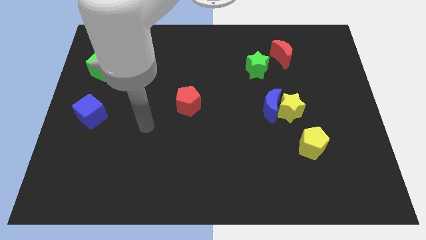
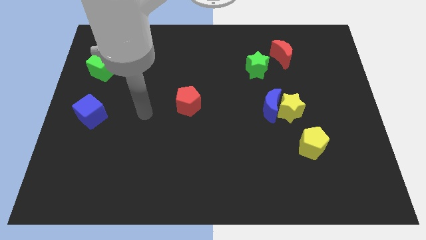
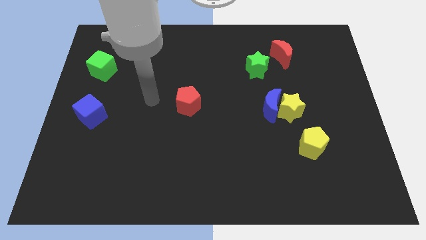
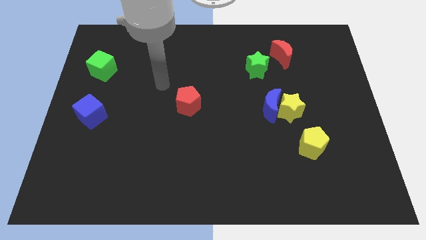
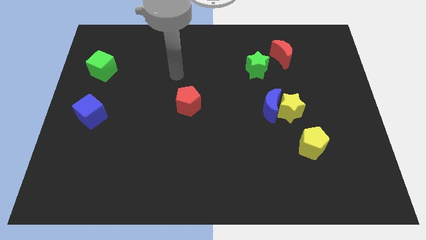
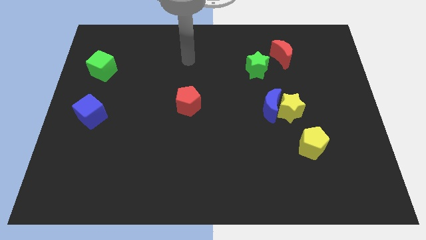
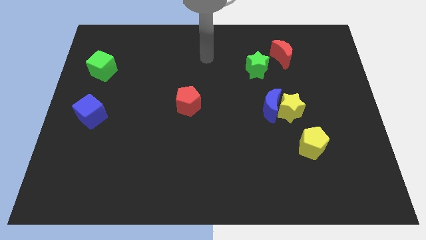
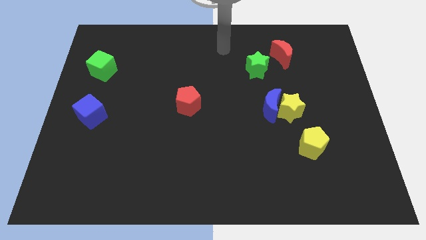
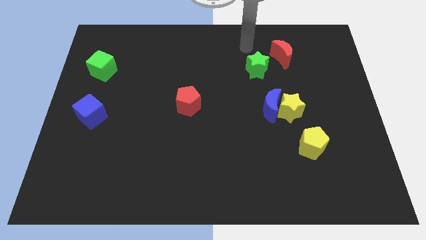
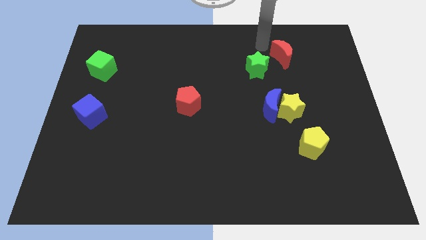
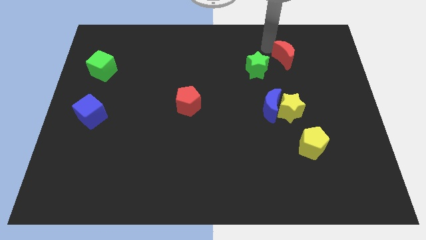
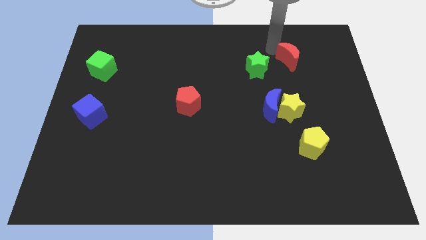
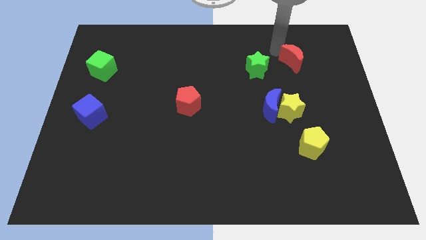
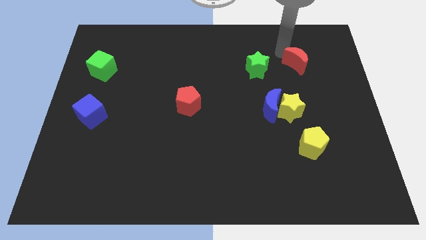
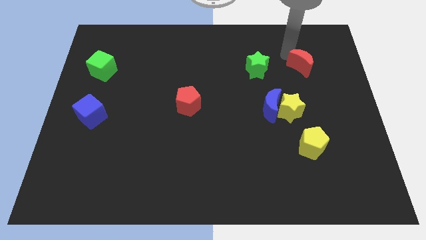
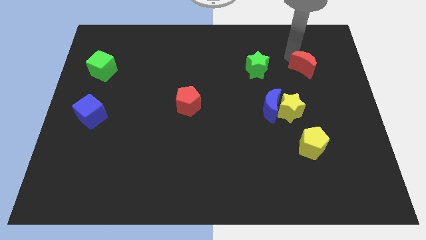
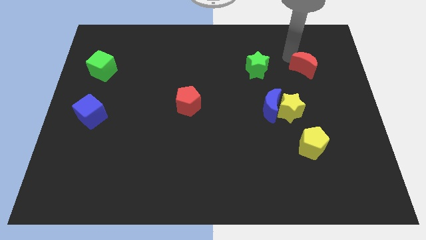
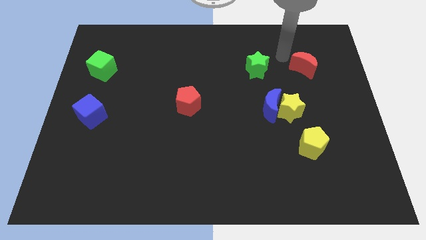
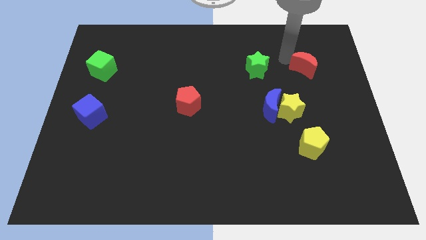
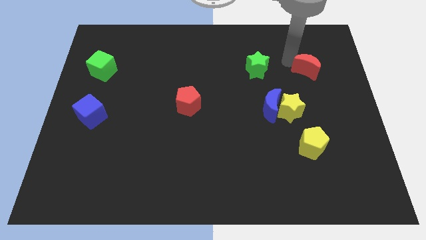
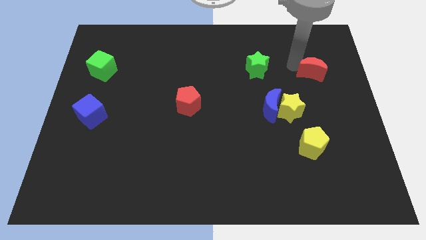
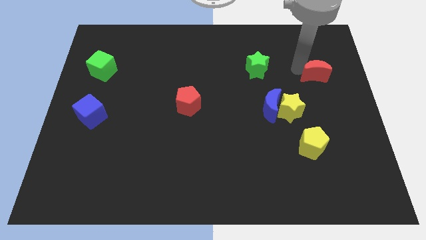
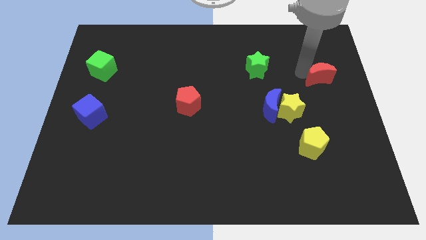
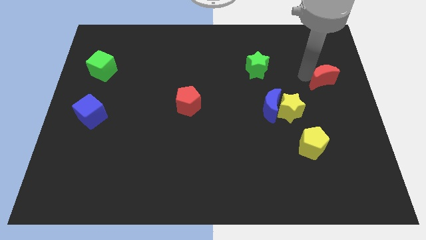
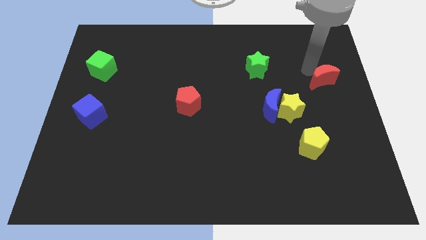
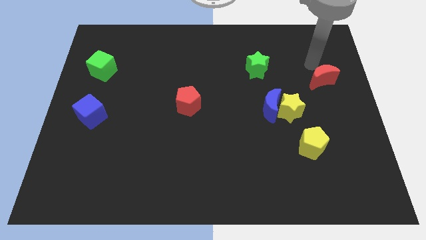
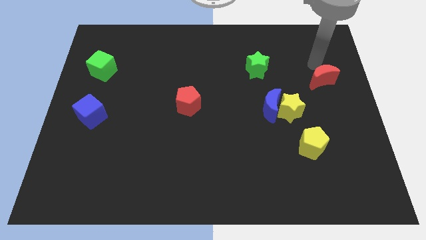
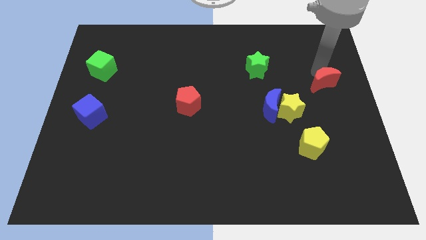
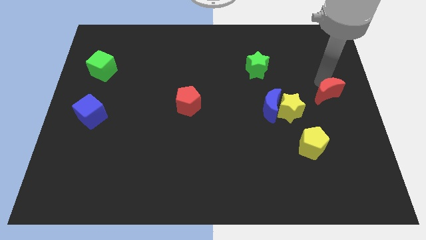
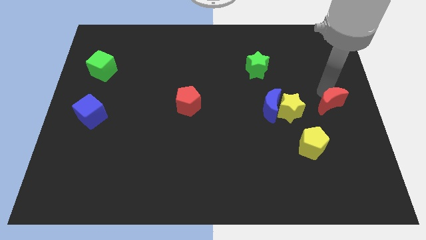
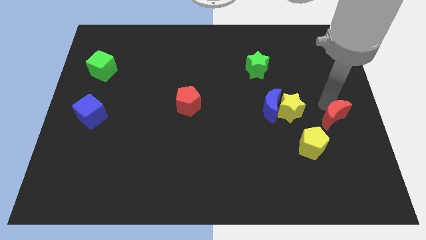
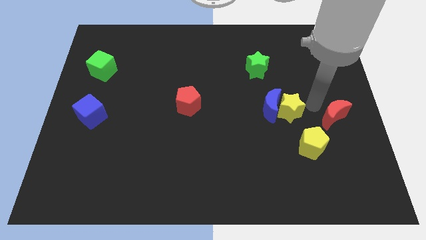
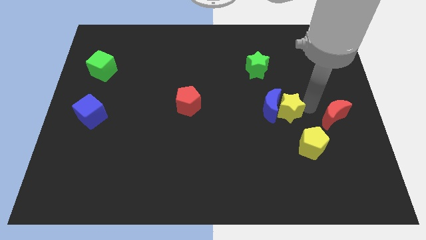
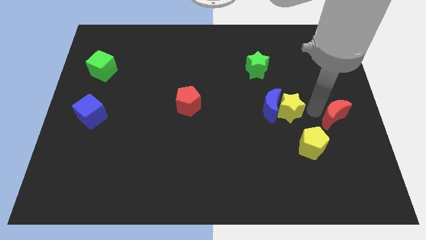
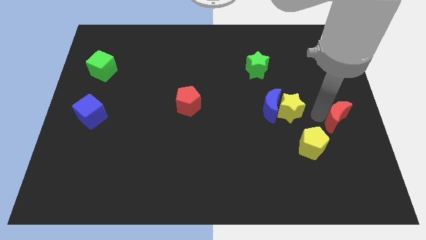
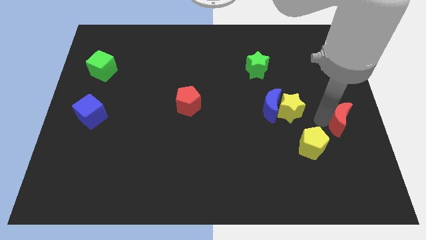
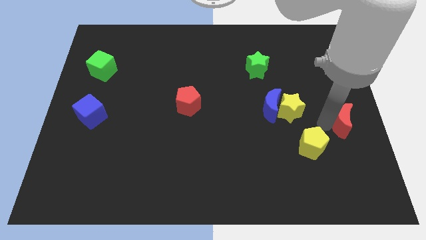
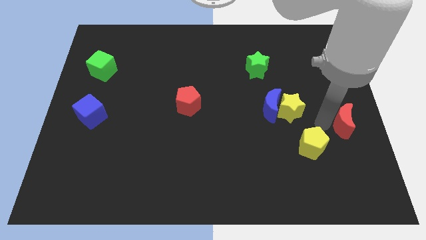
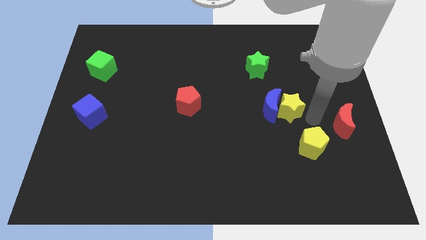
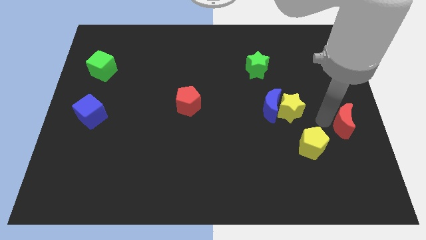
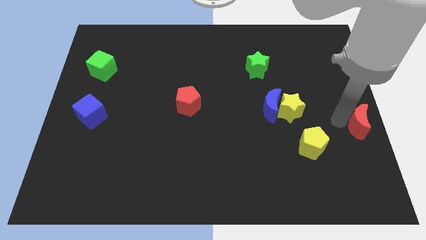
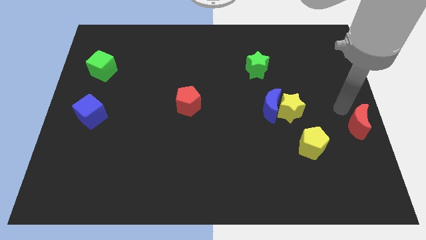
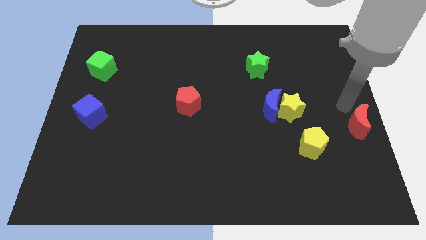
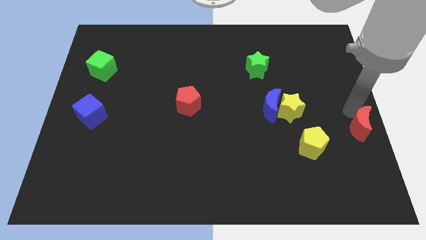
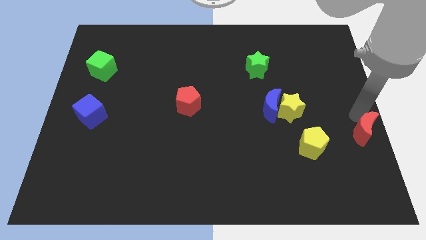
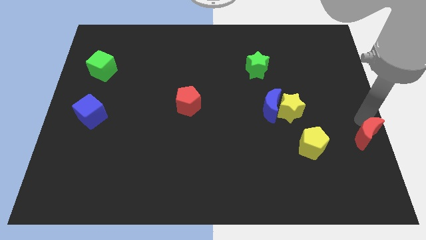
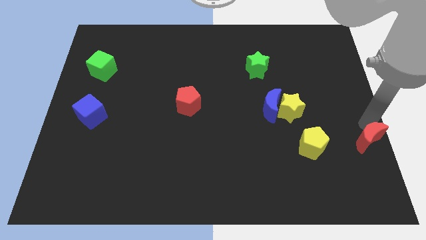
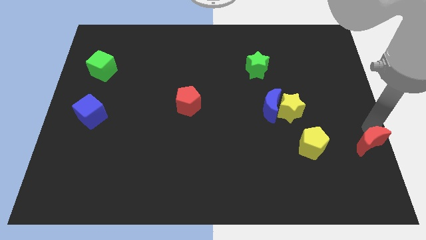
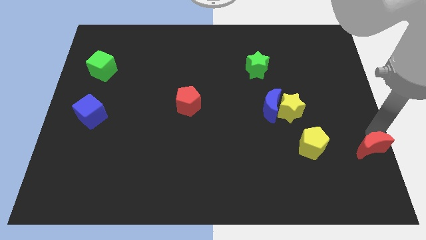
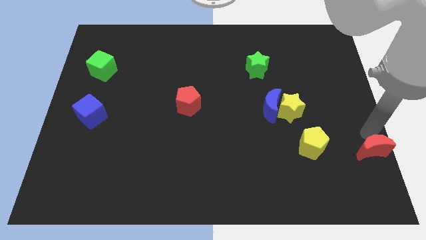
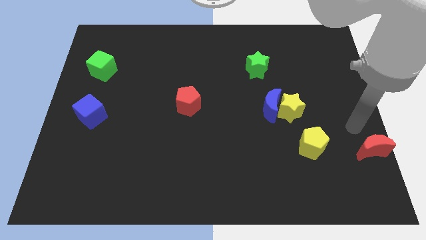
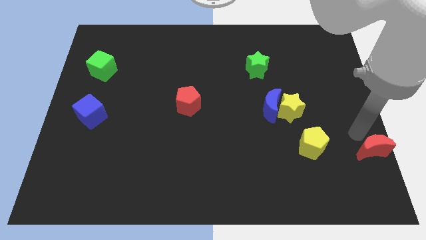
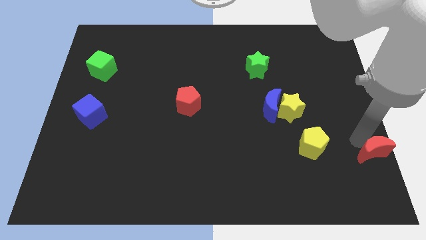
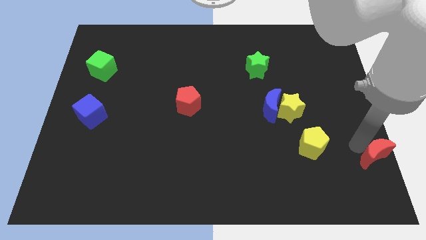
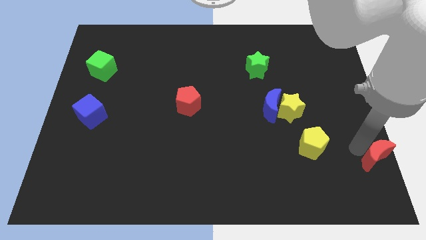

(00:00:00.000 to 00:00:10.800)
slide the red moon to the lower right corner

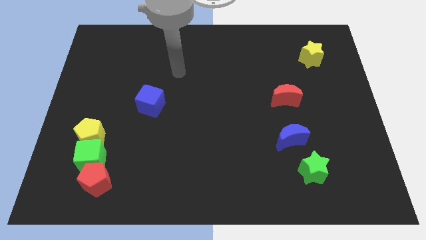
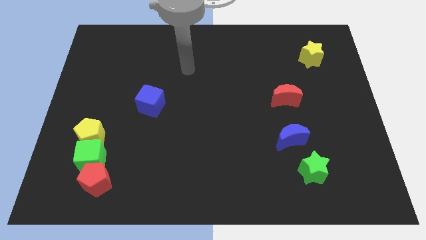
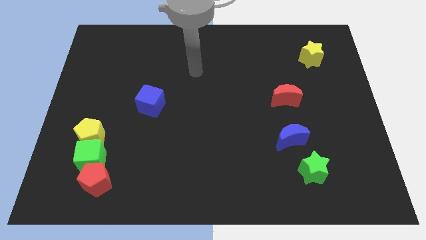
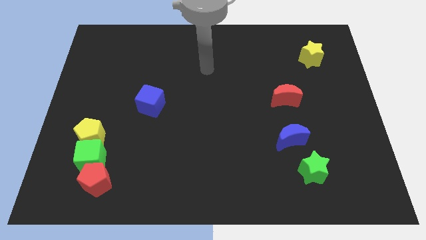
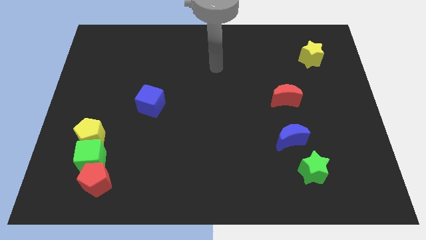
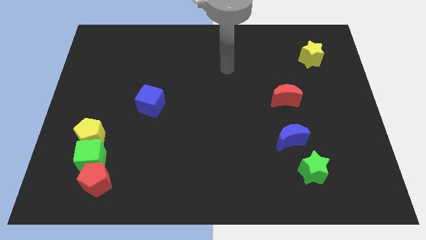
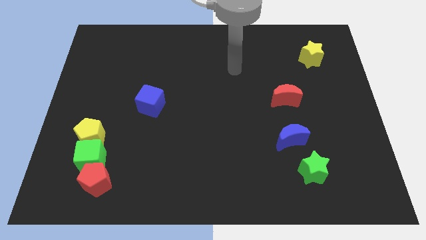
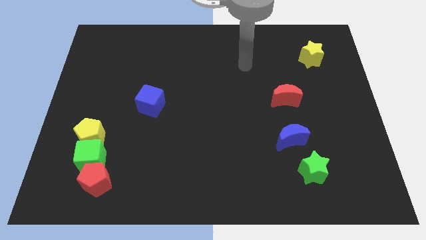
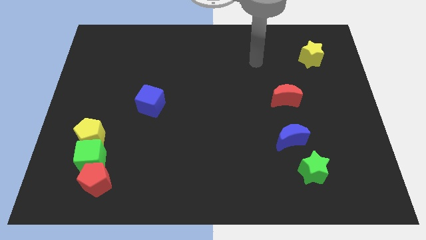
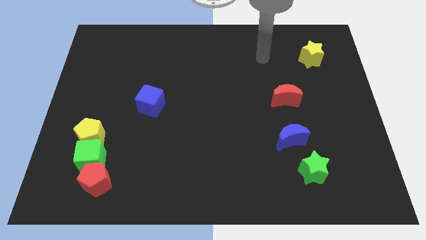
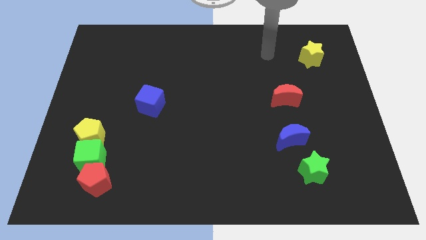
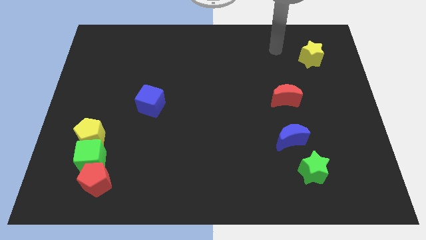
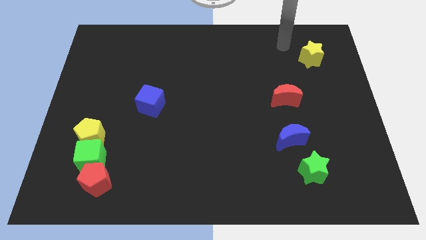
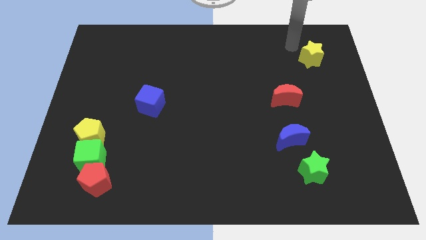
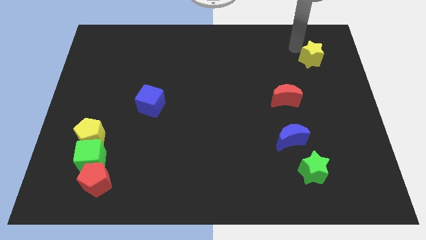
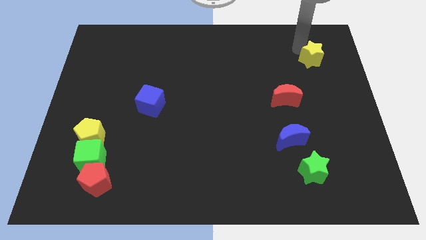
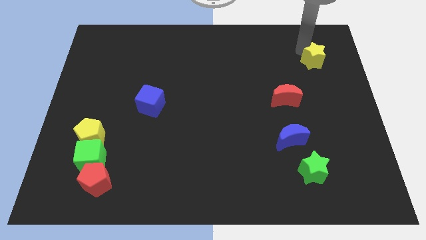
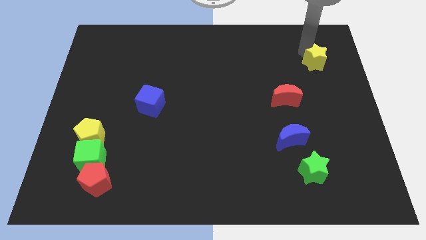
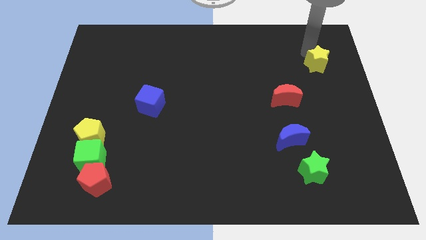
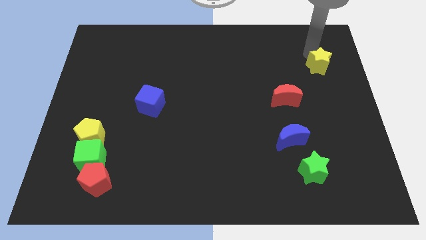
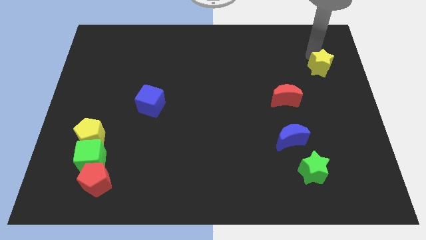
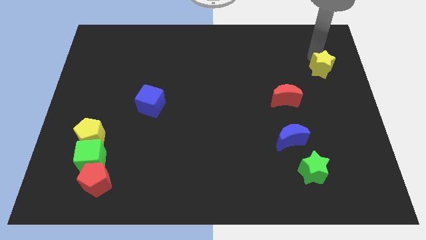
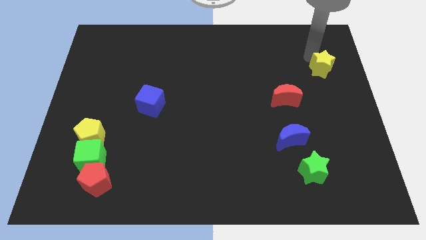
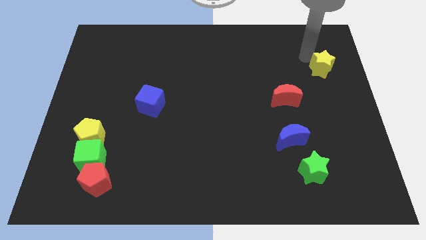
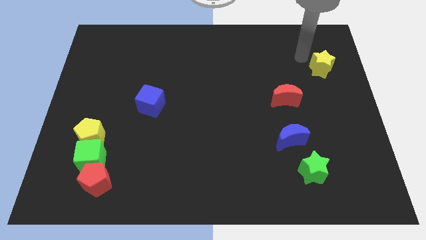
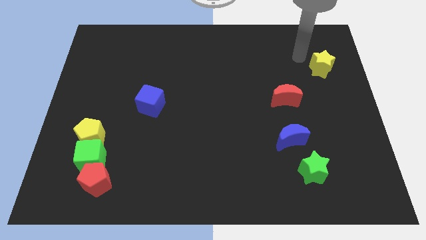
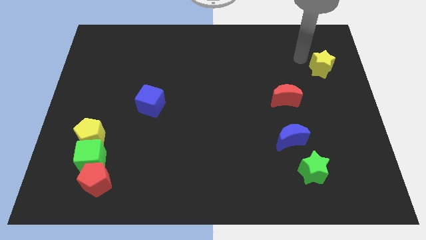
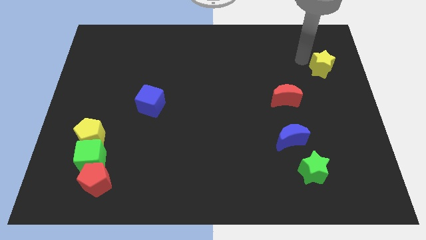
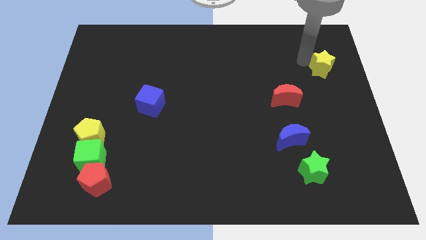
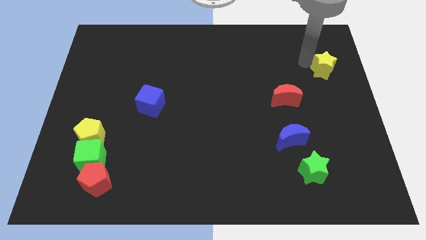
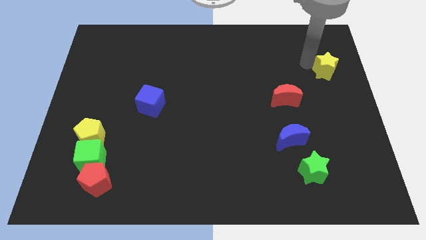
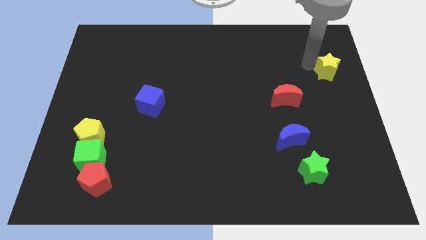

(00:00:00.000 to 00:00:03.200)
move the yellow star to the right side of the board
